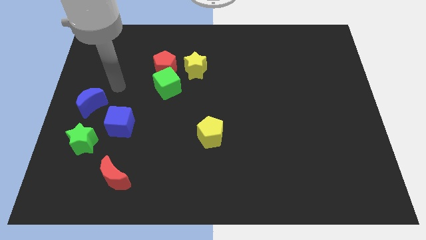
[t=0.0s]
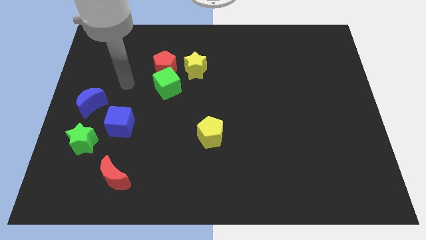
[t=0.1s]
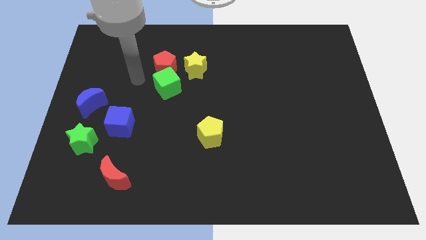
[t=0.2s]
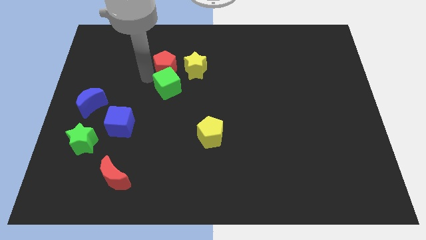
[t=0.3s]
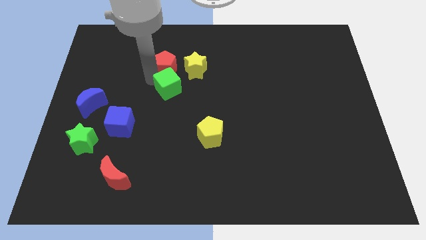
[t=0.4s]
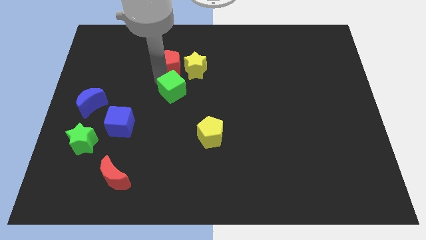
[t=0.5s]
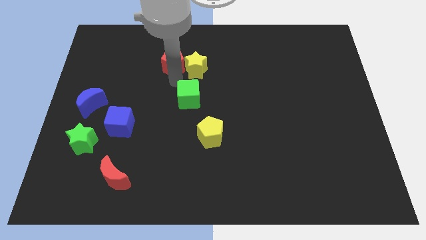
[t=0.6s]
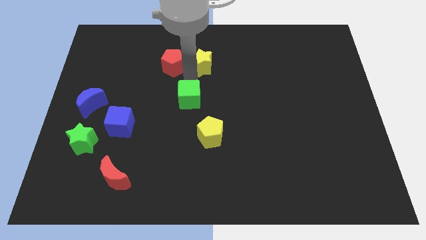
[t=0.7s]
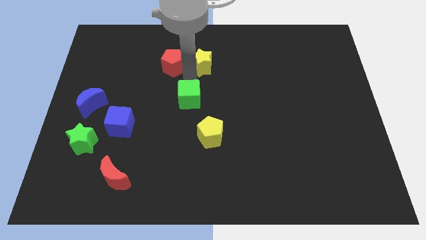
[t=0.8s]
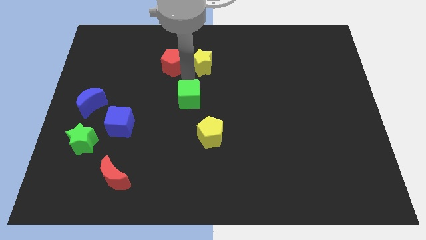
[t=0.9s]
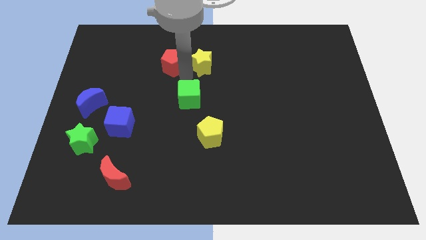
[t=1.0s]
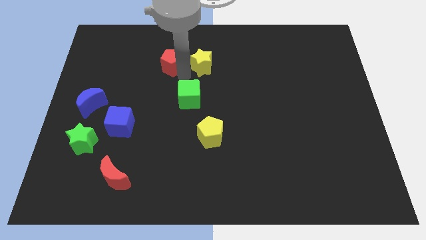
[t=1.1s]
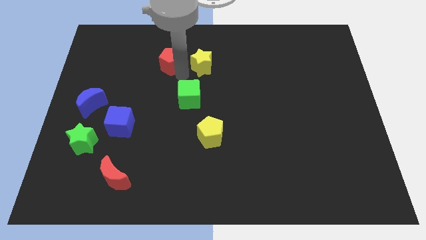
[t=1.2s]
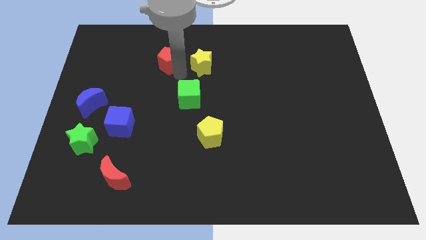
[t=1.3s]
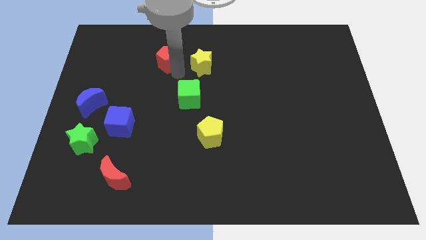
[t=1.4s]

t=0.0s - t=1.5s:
pull the red pentagon apart from the green cube and yellow star

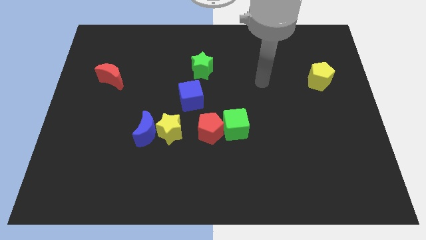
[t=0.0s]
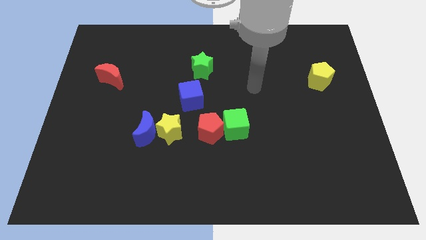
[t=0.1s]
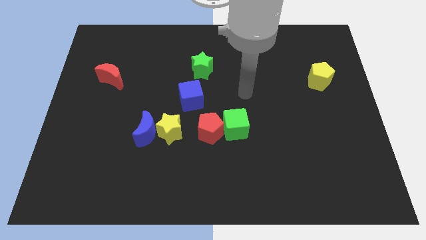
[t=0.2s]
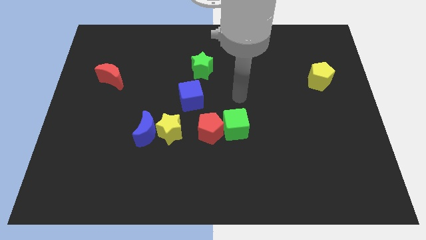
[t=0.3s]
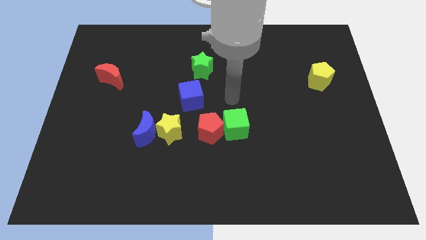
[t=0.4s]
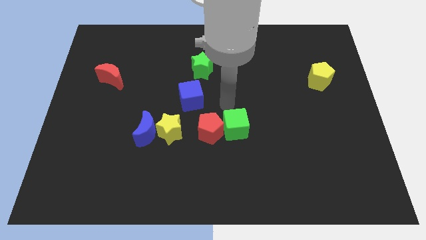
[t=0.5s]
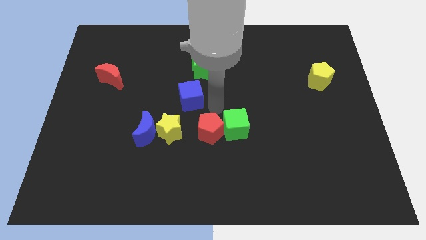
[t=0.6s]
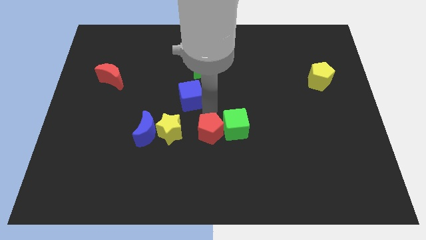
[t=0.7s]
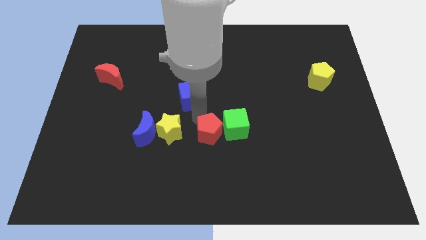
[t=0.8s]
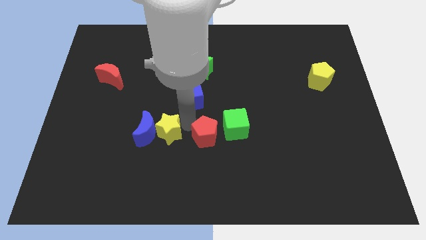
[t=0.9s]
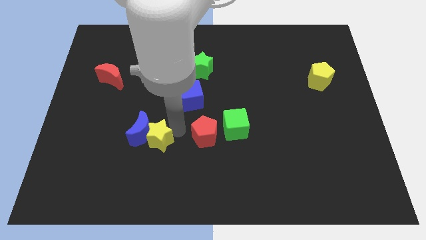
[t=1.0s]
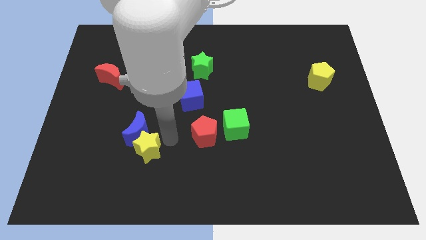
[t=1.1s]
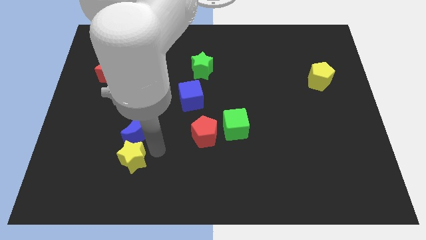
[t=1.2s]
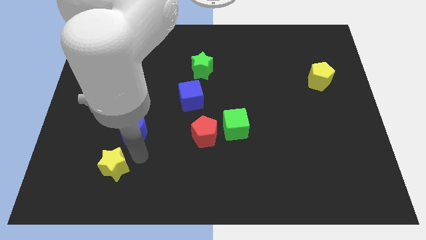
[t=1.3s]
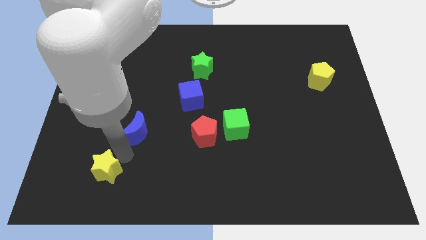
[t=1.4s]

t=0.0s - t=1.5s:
pull the blue moon apart from the yellow star

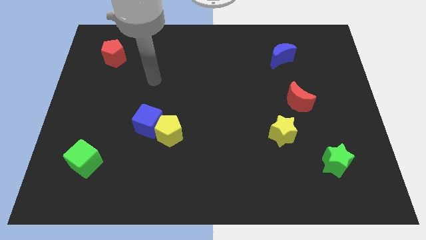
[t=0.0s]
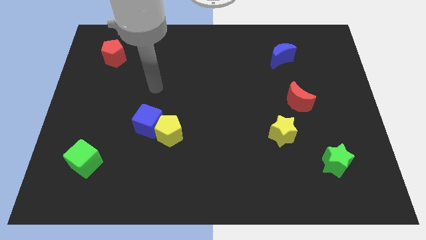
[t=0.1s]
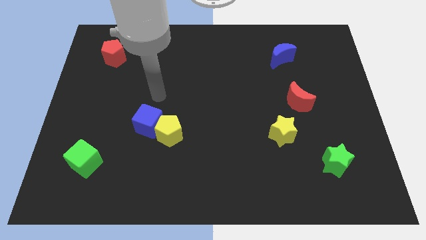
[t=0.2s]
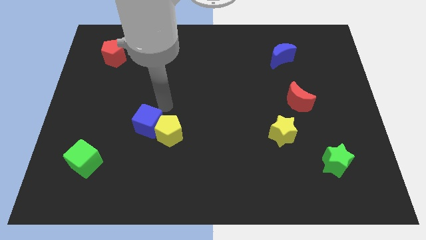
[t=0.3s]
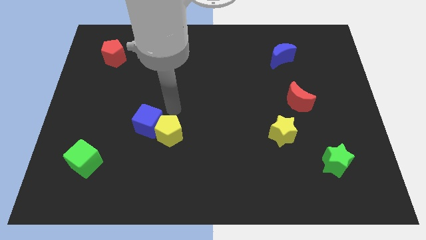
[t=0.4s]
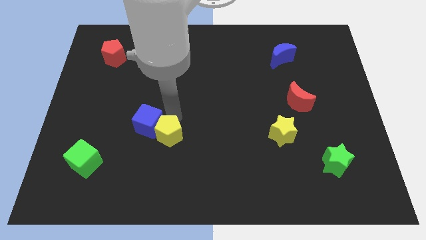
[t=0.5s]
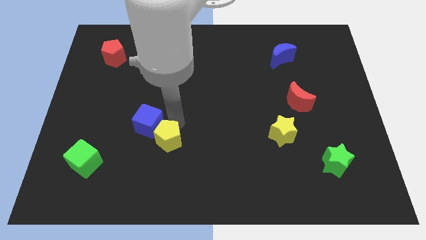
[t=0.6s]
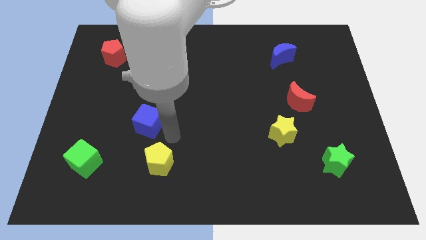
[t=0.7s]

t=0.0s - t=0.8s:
separate the blue cube from the yellow pentagon

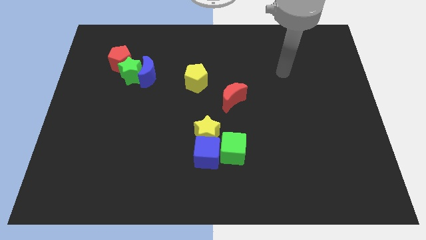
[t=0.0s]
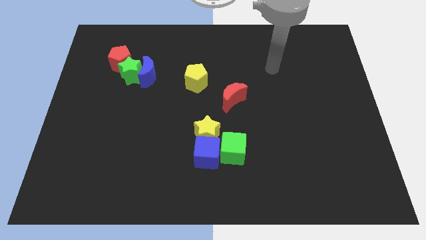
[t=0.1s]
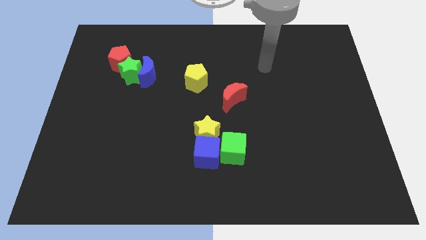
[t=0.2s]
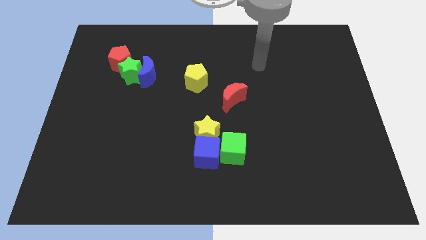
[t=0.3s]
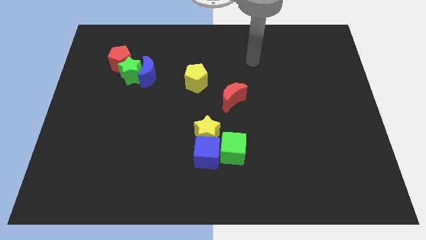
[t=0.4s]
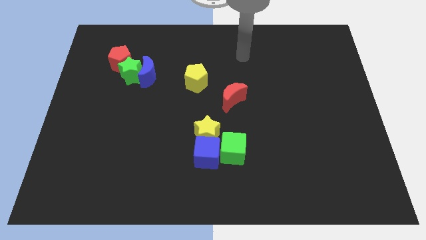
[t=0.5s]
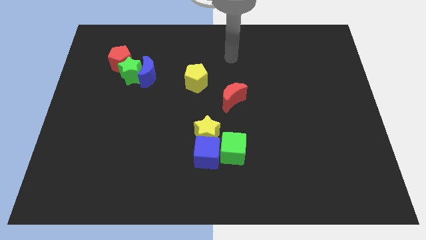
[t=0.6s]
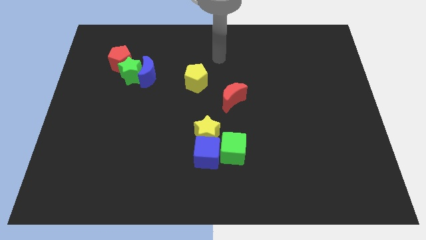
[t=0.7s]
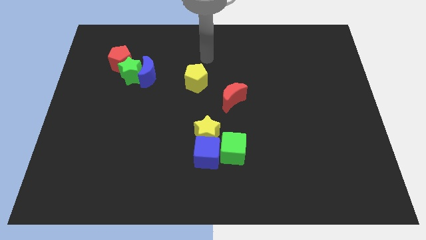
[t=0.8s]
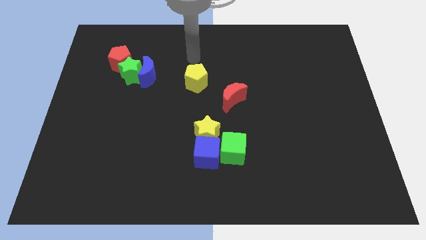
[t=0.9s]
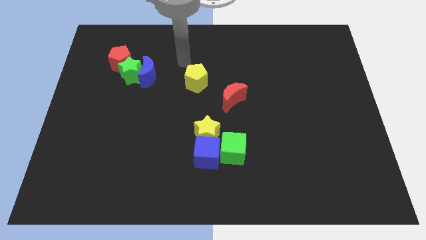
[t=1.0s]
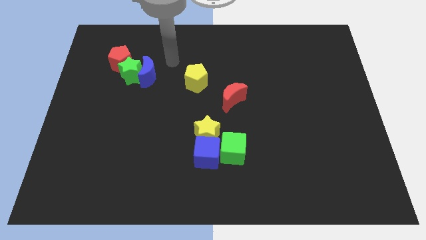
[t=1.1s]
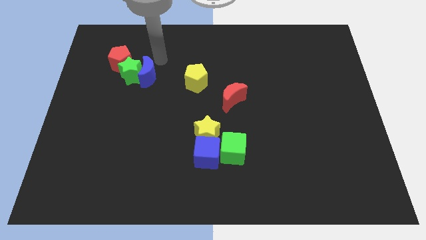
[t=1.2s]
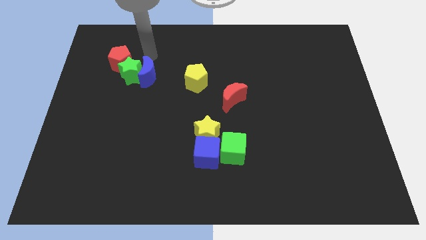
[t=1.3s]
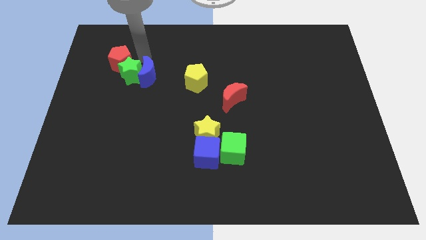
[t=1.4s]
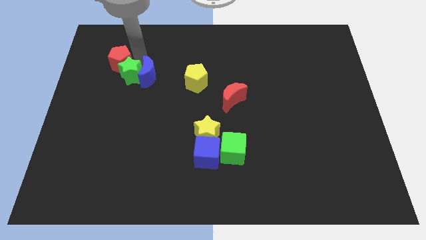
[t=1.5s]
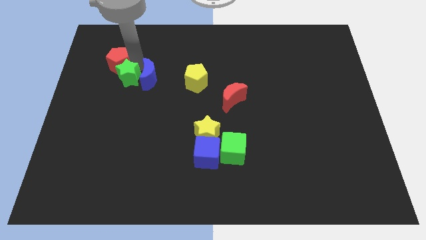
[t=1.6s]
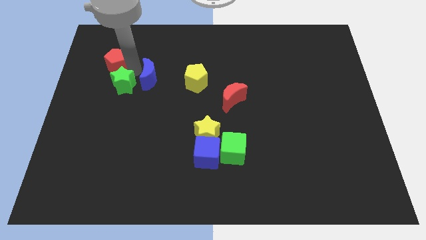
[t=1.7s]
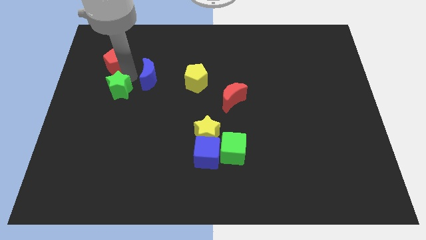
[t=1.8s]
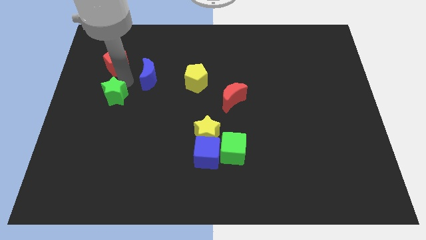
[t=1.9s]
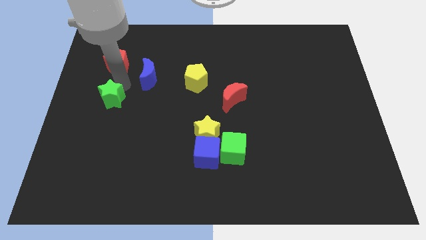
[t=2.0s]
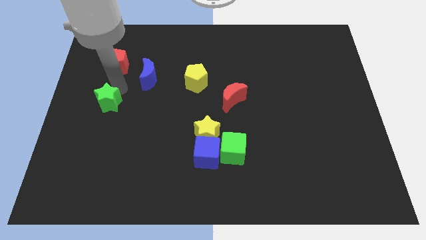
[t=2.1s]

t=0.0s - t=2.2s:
move the green star away from the blue moon and red pentagon

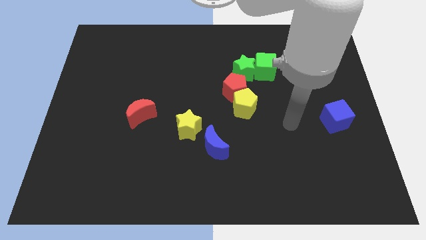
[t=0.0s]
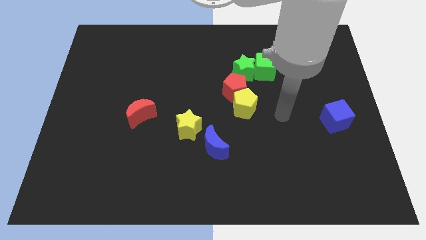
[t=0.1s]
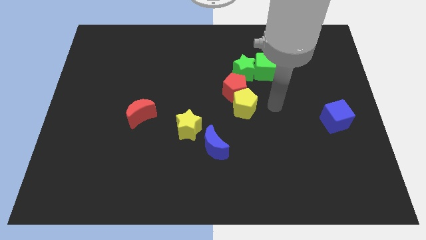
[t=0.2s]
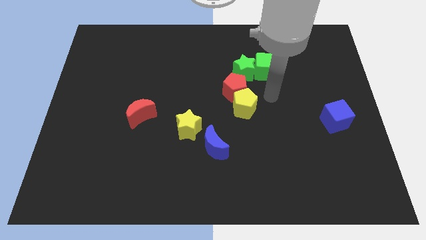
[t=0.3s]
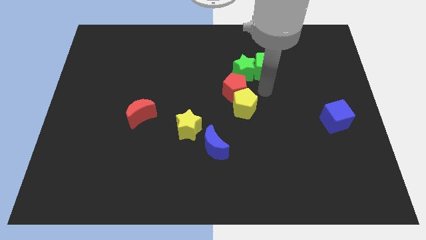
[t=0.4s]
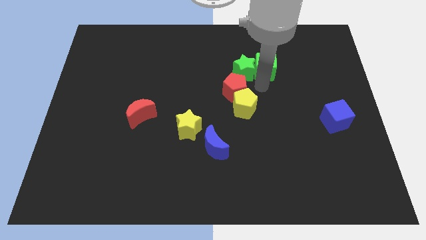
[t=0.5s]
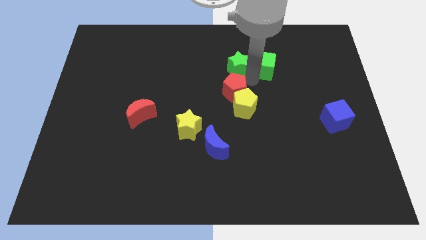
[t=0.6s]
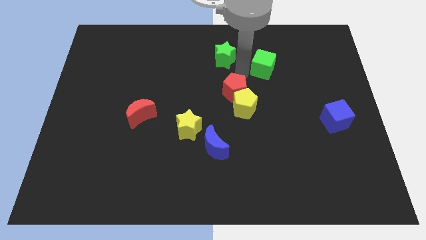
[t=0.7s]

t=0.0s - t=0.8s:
move the green cube away from the green star

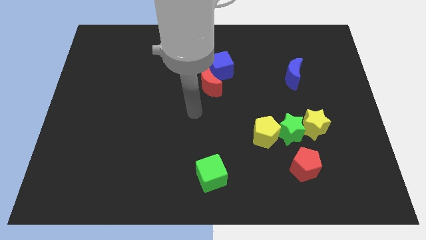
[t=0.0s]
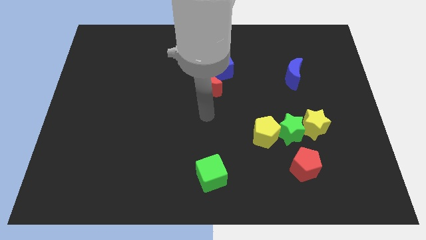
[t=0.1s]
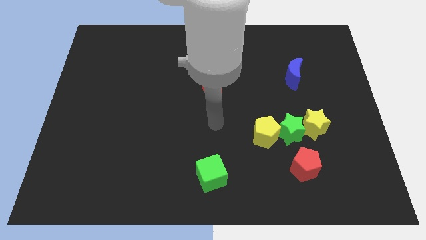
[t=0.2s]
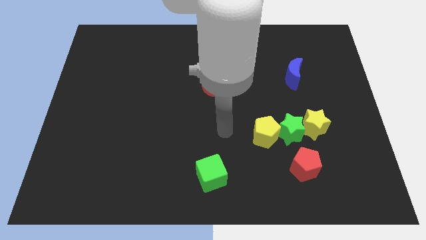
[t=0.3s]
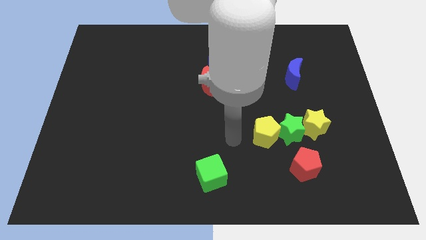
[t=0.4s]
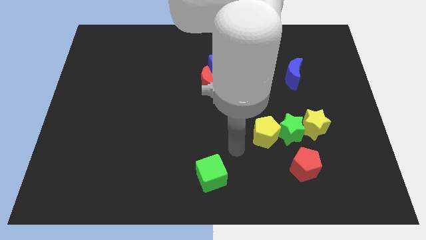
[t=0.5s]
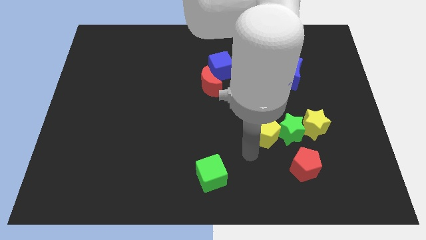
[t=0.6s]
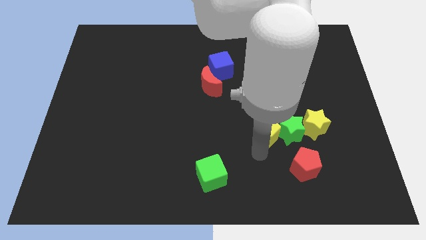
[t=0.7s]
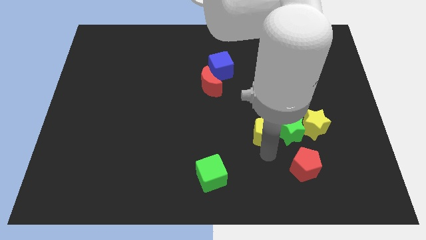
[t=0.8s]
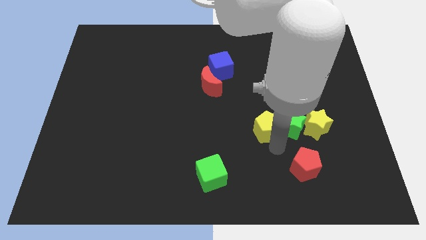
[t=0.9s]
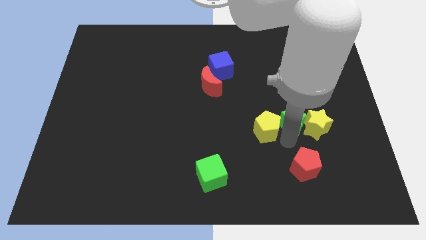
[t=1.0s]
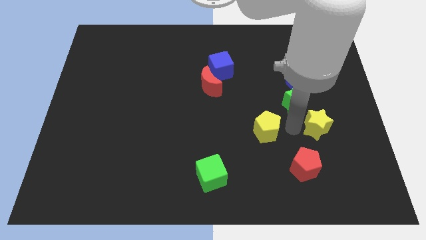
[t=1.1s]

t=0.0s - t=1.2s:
separate the yellow pentagon from the green star

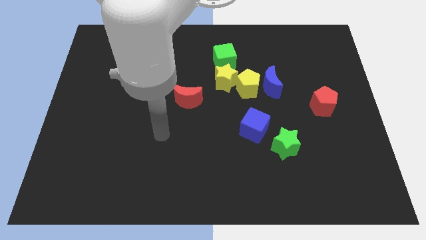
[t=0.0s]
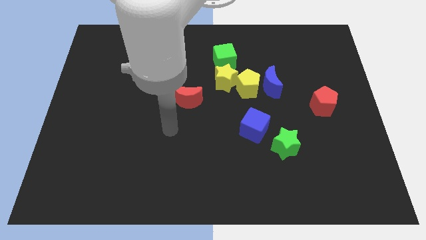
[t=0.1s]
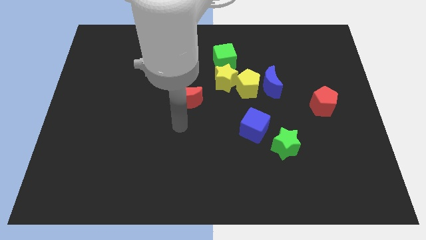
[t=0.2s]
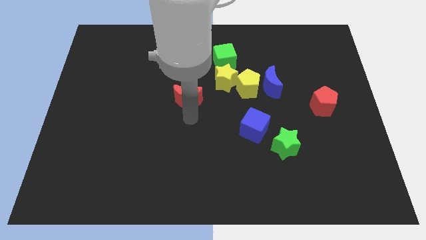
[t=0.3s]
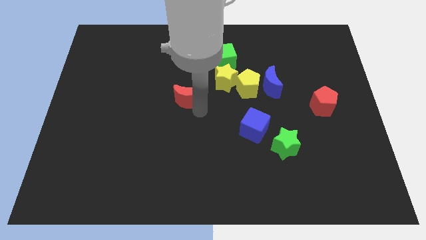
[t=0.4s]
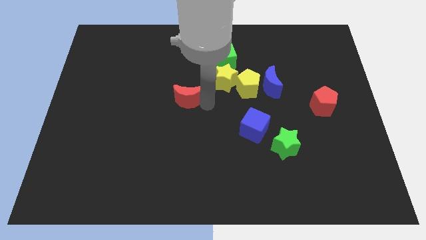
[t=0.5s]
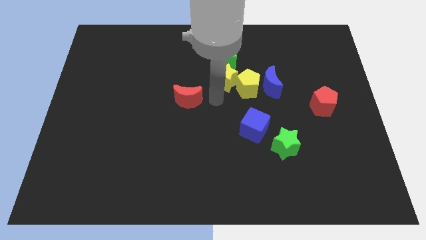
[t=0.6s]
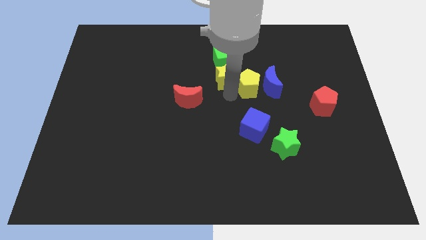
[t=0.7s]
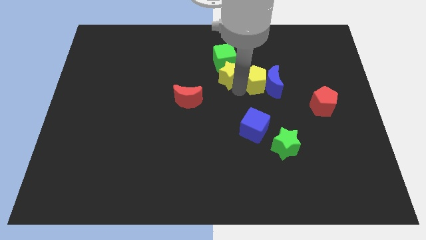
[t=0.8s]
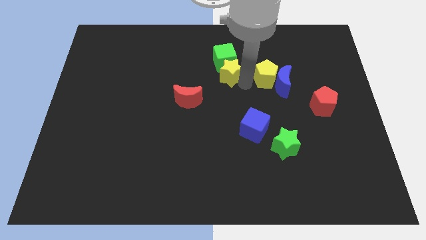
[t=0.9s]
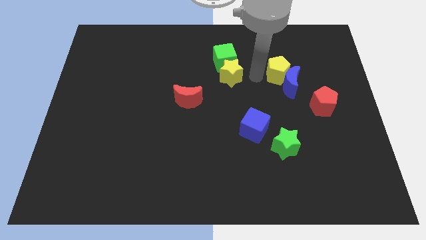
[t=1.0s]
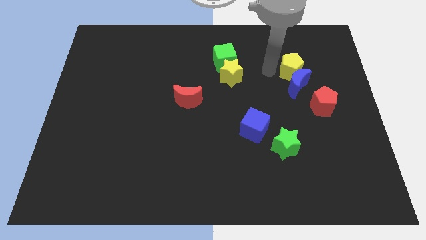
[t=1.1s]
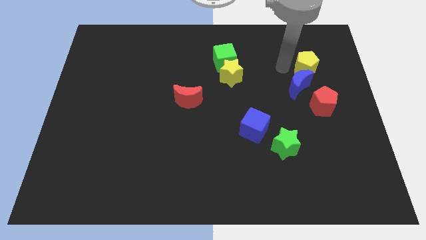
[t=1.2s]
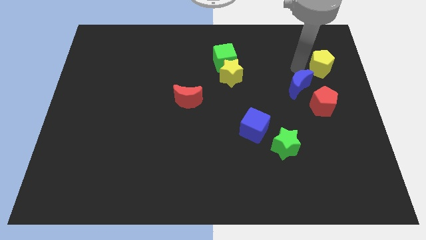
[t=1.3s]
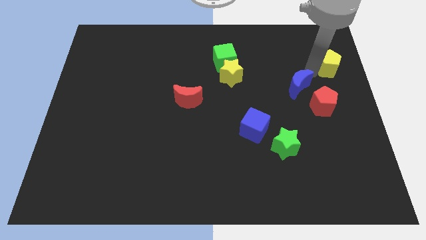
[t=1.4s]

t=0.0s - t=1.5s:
pull the blue moon apart from the yellow pentagon
